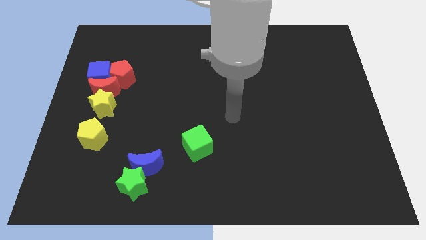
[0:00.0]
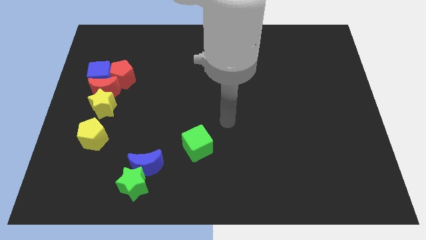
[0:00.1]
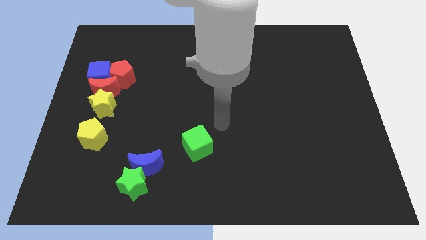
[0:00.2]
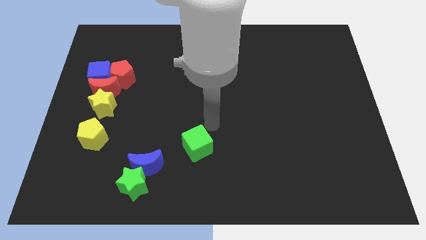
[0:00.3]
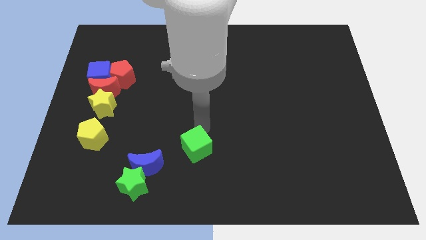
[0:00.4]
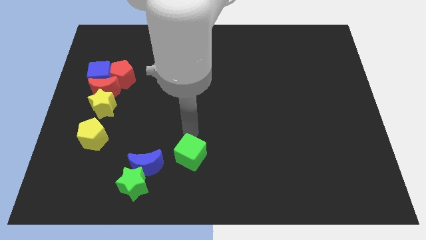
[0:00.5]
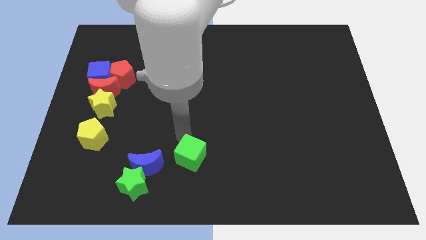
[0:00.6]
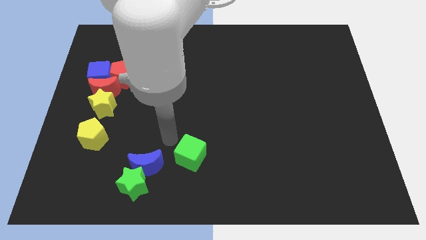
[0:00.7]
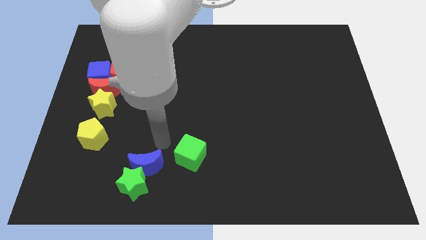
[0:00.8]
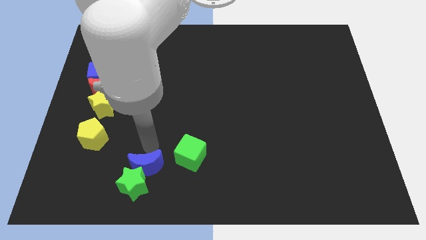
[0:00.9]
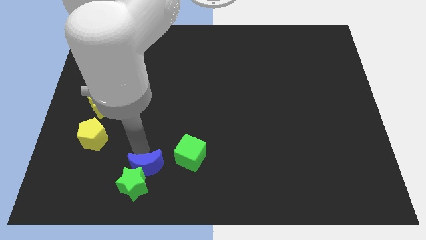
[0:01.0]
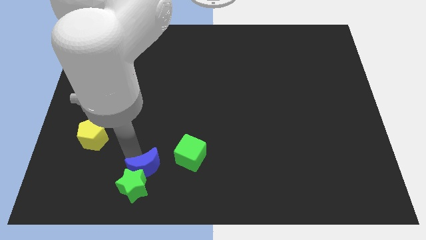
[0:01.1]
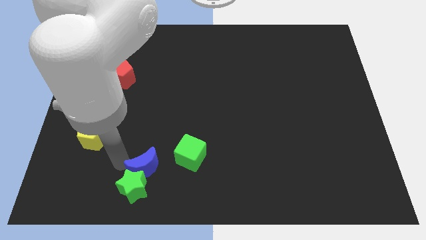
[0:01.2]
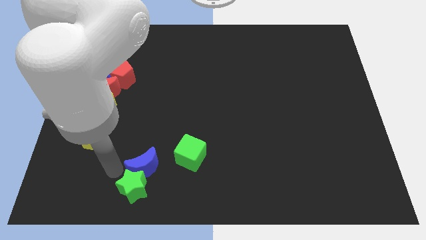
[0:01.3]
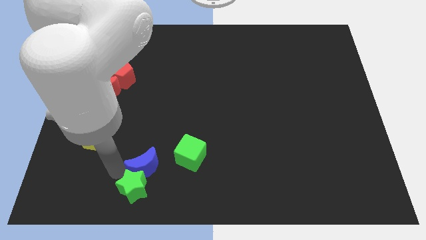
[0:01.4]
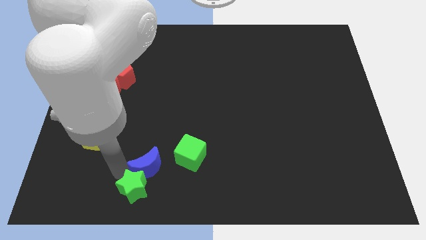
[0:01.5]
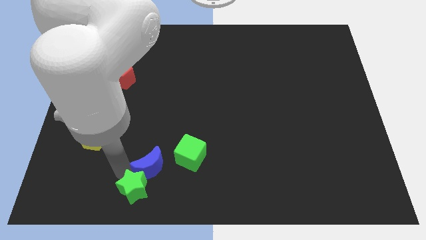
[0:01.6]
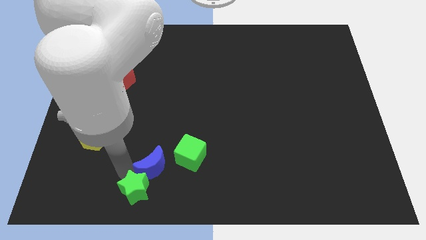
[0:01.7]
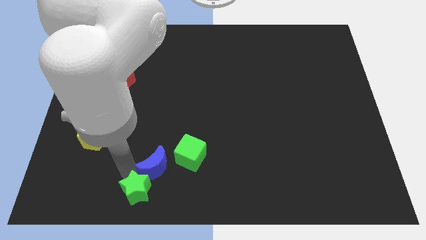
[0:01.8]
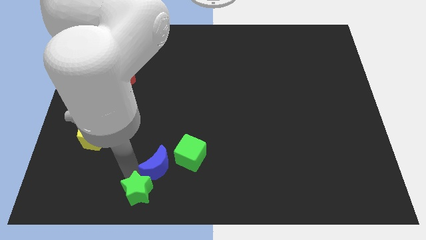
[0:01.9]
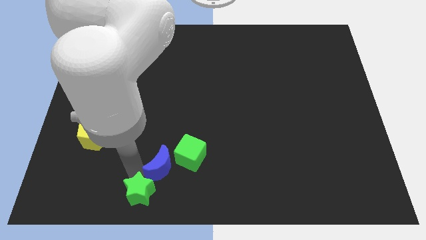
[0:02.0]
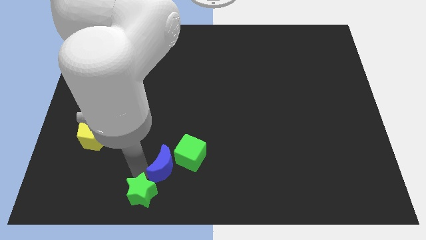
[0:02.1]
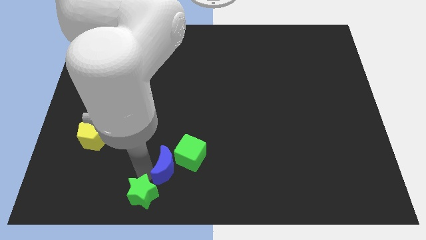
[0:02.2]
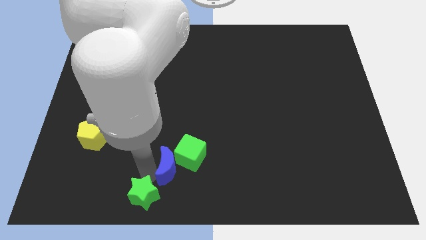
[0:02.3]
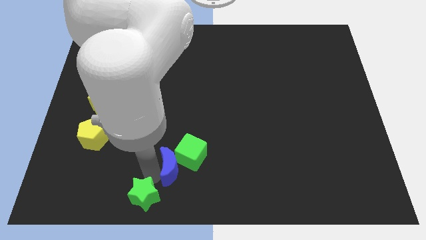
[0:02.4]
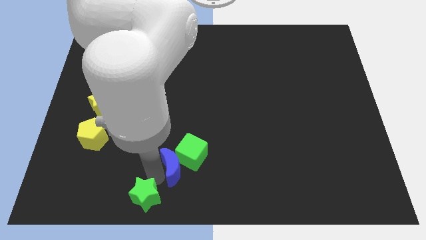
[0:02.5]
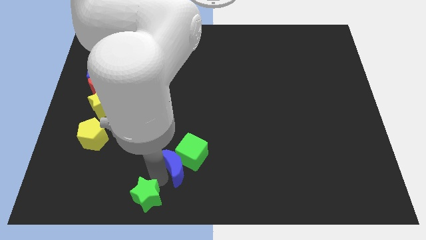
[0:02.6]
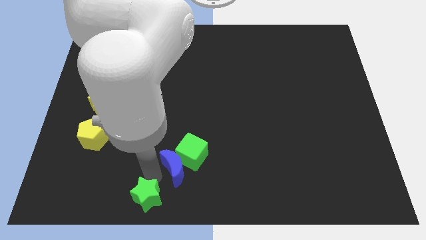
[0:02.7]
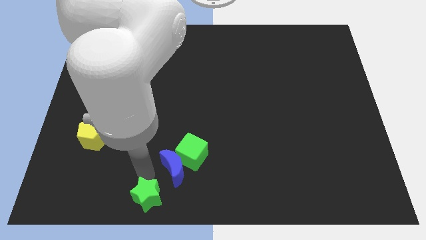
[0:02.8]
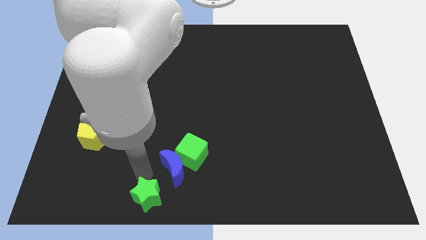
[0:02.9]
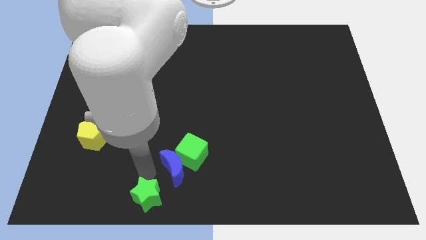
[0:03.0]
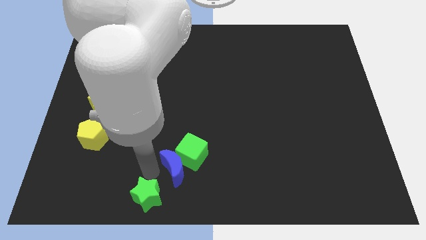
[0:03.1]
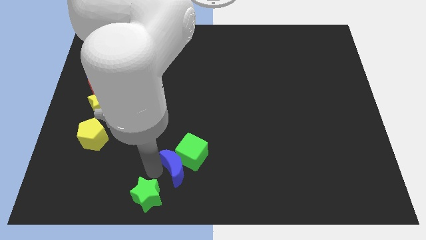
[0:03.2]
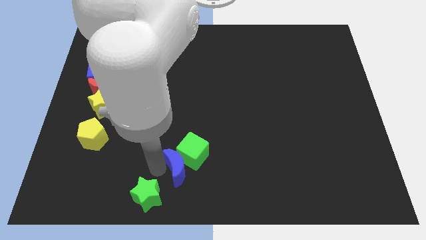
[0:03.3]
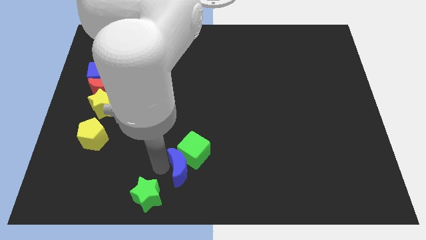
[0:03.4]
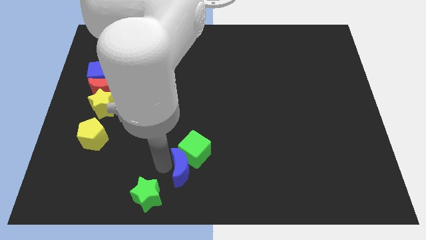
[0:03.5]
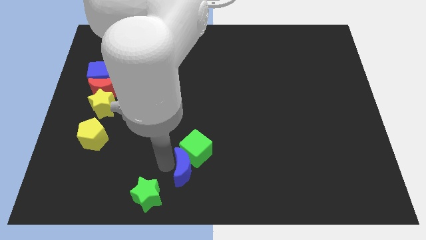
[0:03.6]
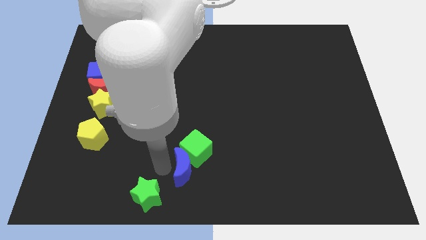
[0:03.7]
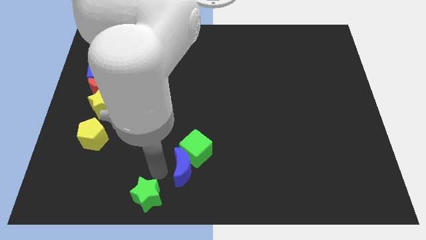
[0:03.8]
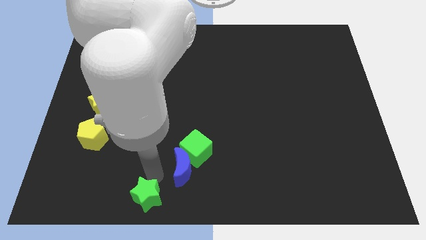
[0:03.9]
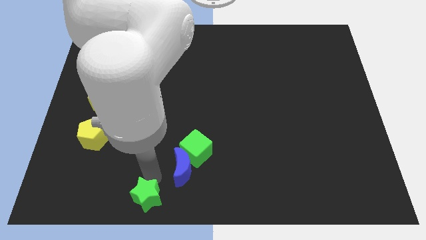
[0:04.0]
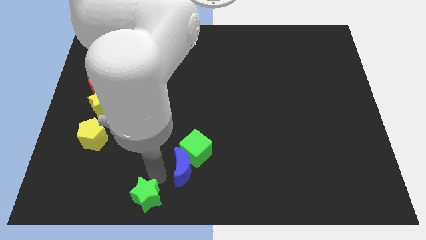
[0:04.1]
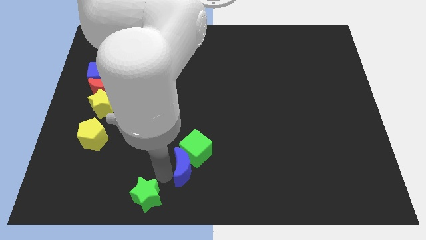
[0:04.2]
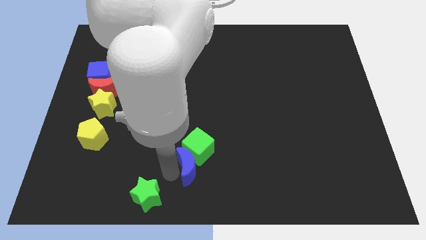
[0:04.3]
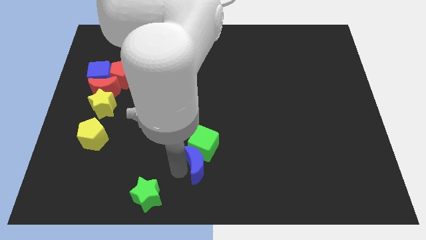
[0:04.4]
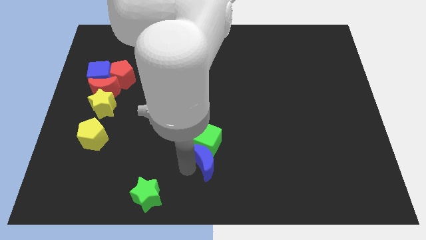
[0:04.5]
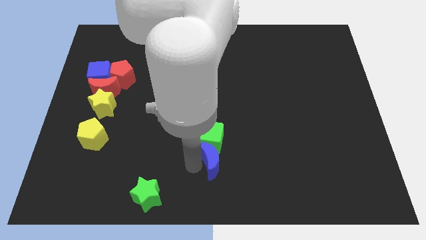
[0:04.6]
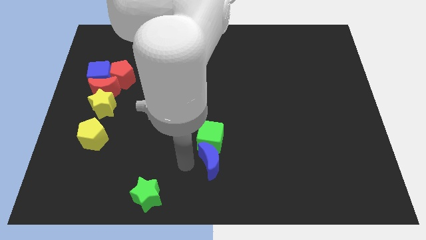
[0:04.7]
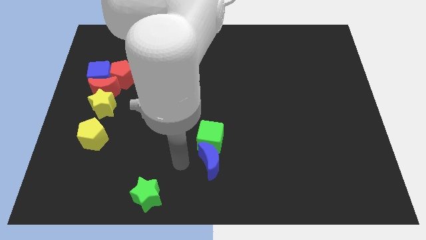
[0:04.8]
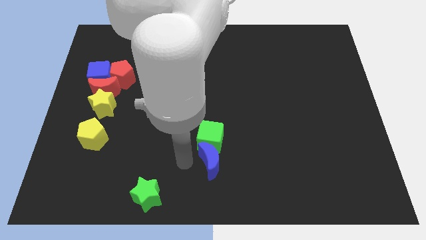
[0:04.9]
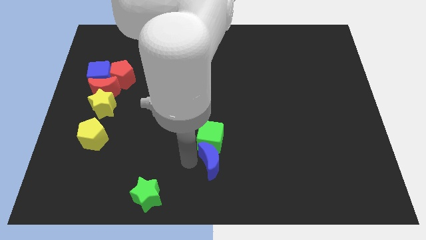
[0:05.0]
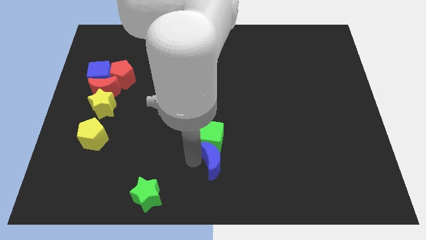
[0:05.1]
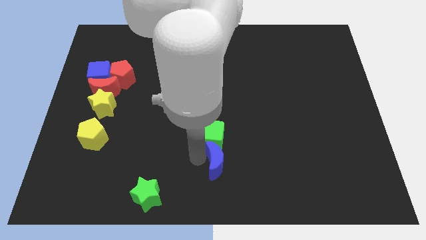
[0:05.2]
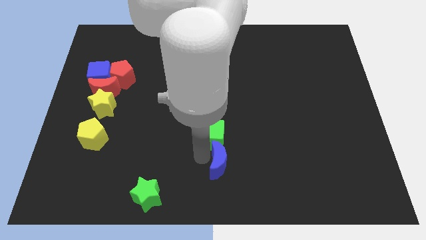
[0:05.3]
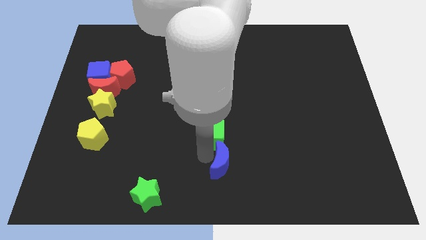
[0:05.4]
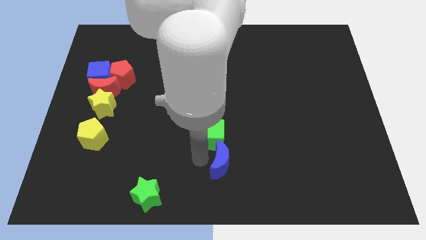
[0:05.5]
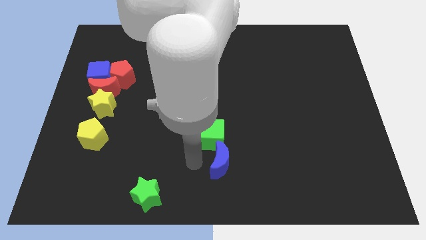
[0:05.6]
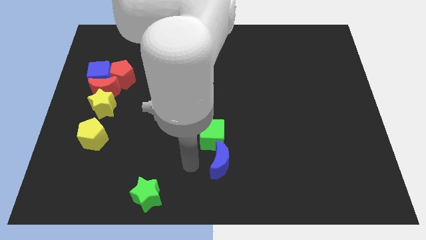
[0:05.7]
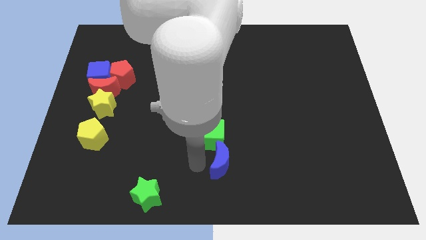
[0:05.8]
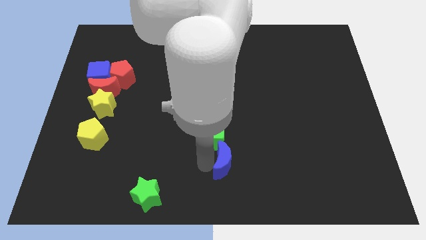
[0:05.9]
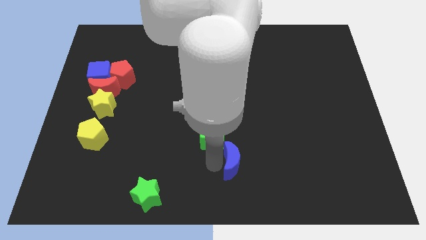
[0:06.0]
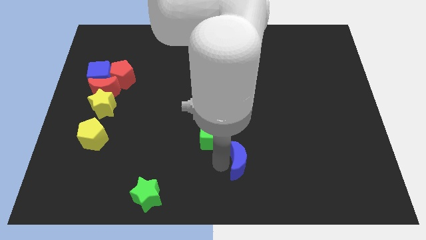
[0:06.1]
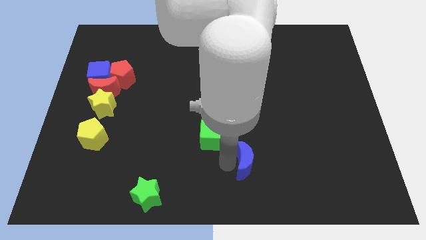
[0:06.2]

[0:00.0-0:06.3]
move the blue moon right

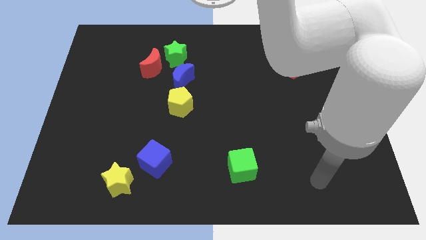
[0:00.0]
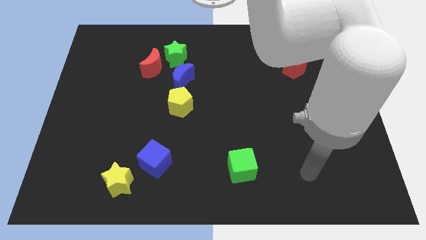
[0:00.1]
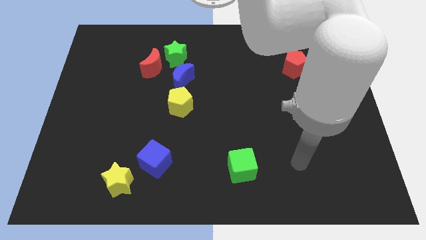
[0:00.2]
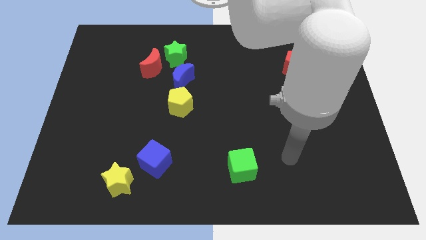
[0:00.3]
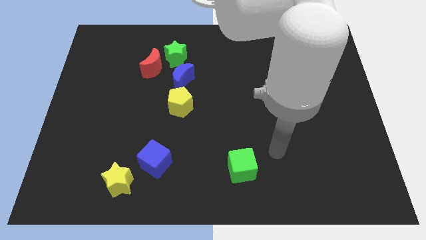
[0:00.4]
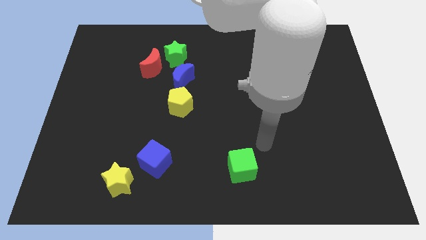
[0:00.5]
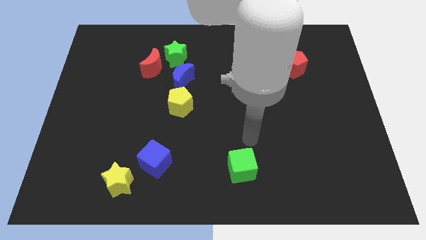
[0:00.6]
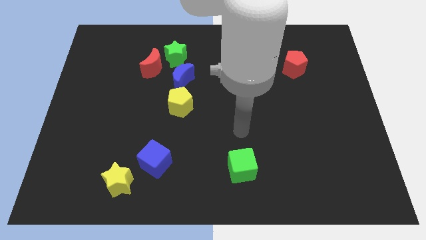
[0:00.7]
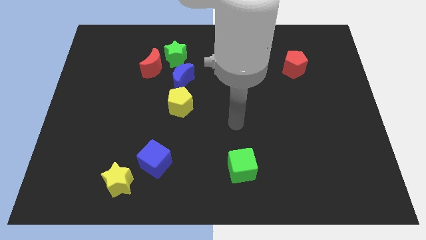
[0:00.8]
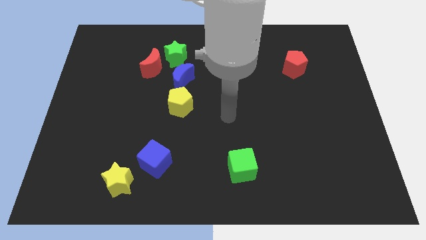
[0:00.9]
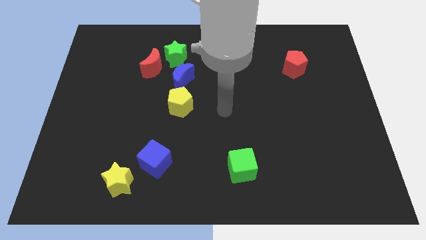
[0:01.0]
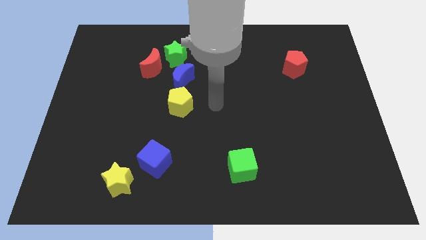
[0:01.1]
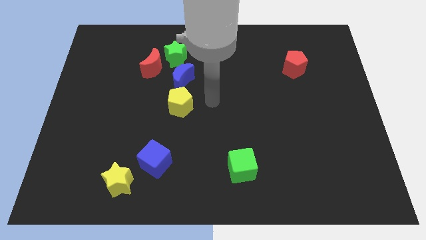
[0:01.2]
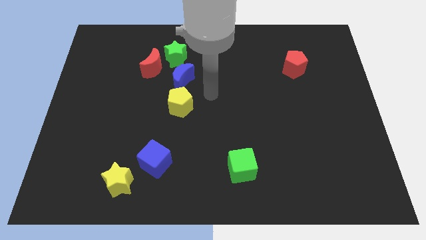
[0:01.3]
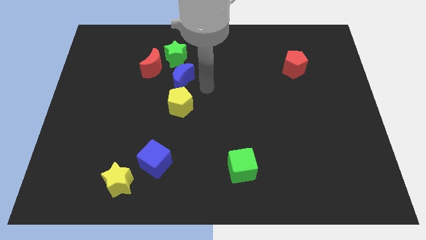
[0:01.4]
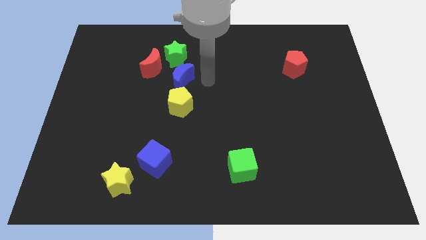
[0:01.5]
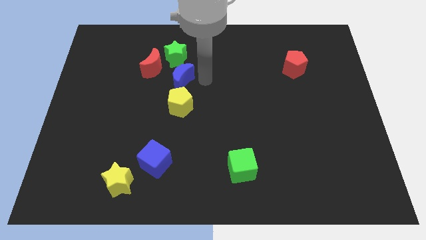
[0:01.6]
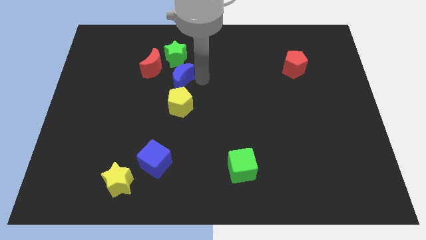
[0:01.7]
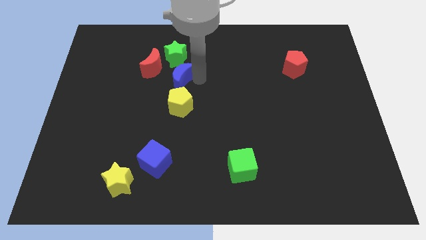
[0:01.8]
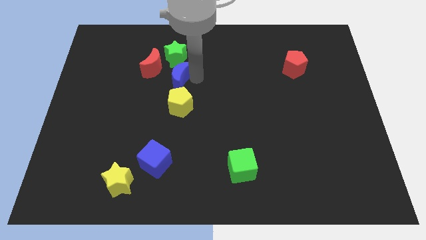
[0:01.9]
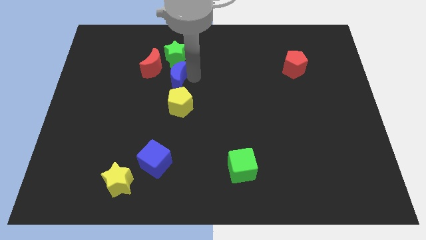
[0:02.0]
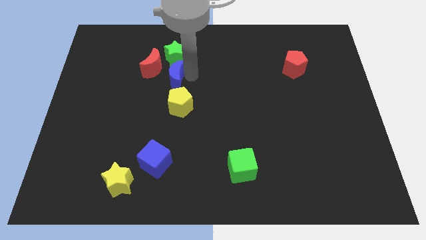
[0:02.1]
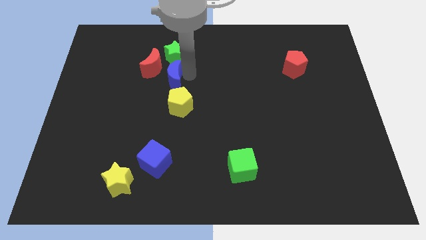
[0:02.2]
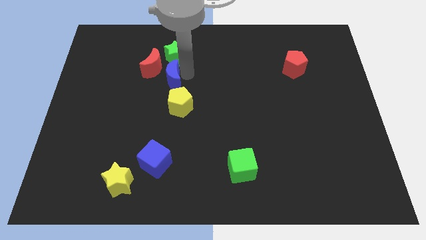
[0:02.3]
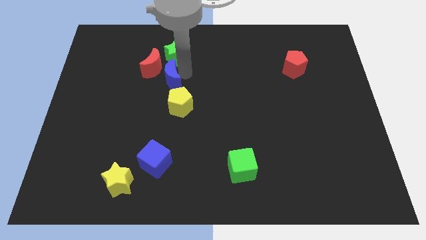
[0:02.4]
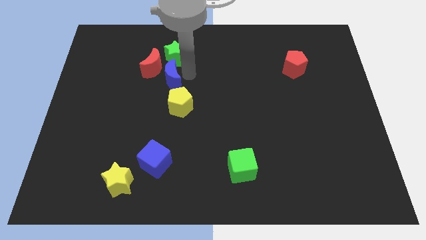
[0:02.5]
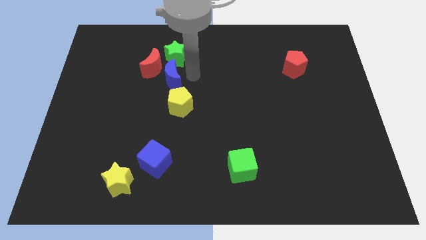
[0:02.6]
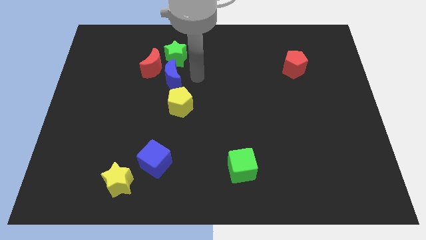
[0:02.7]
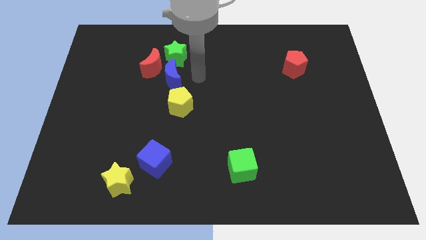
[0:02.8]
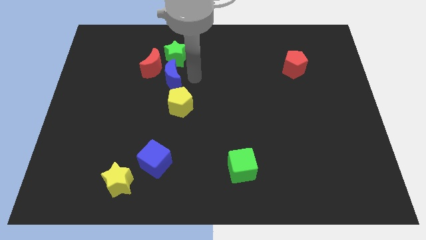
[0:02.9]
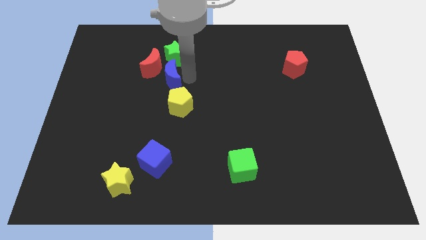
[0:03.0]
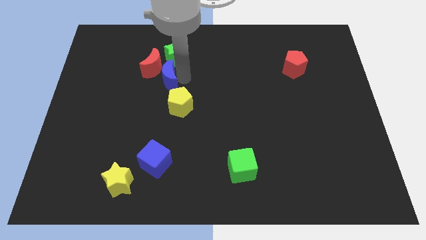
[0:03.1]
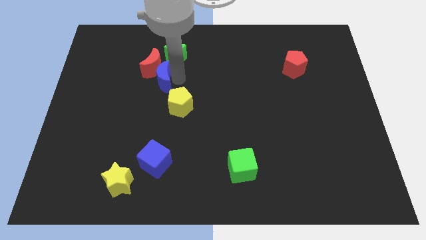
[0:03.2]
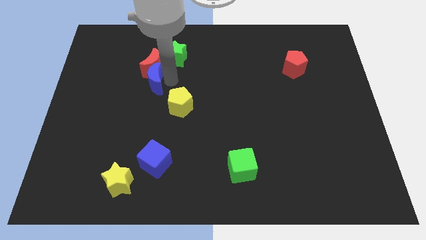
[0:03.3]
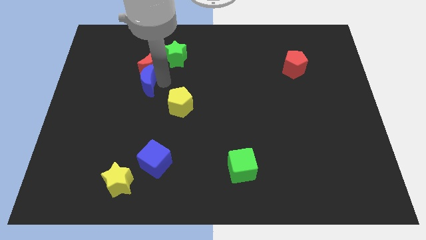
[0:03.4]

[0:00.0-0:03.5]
move the blue moon a bit to the left
